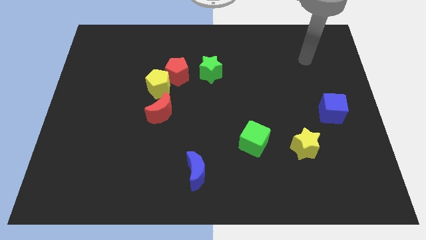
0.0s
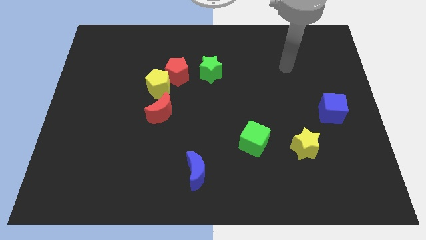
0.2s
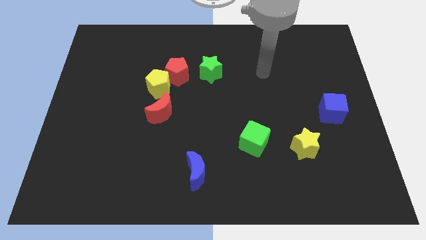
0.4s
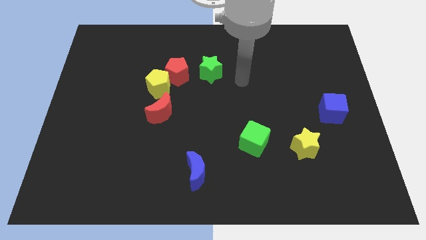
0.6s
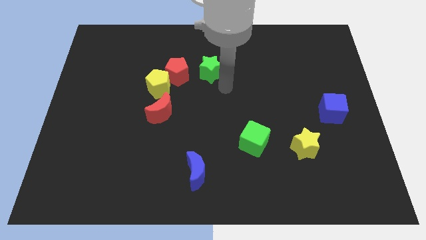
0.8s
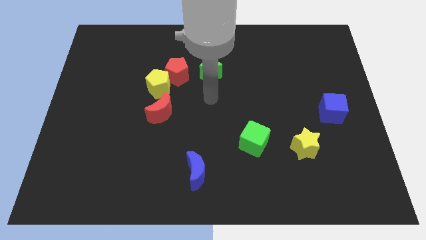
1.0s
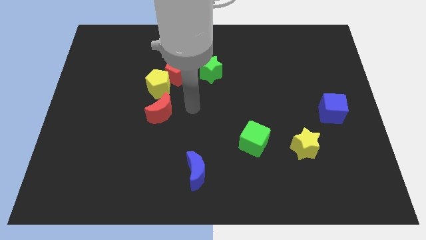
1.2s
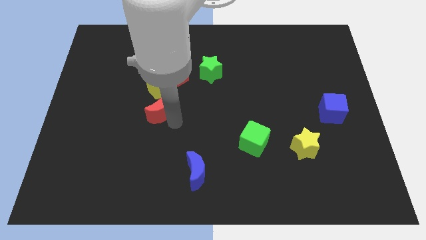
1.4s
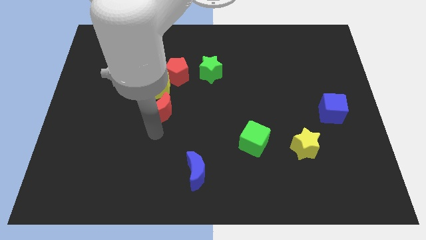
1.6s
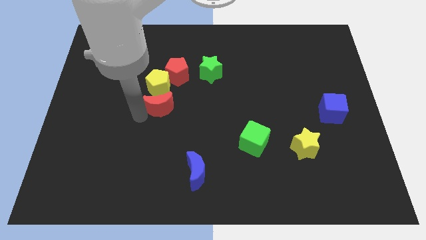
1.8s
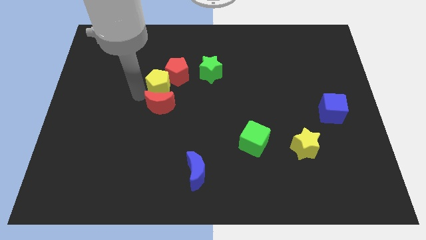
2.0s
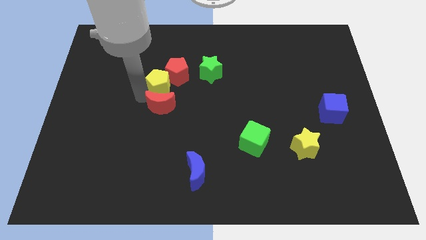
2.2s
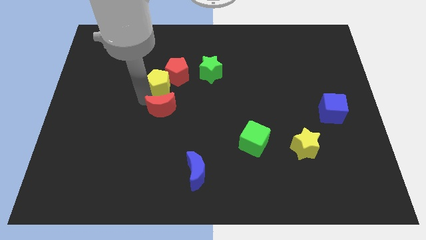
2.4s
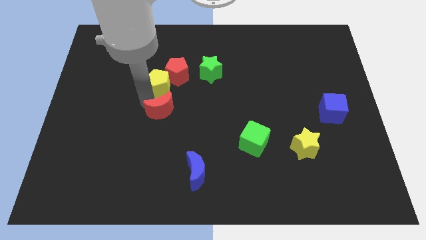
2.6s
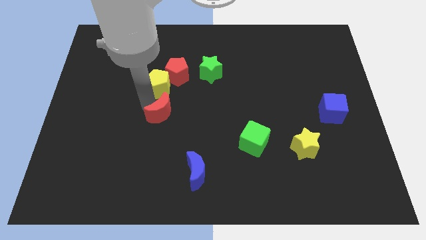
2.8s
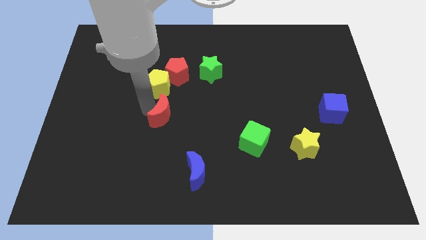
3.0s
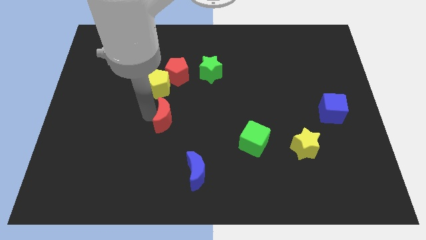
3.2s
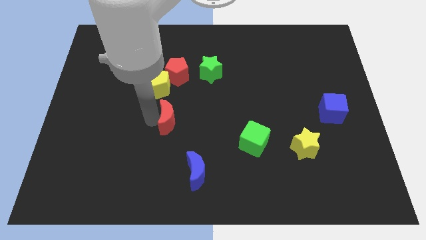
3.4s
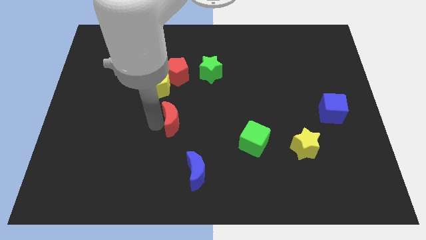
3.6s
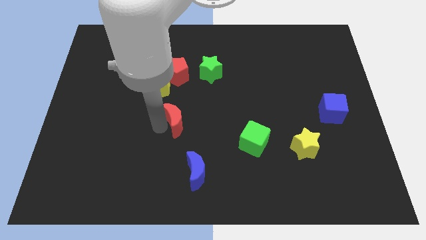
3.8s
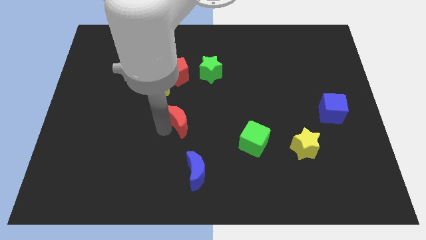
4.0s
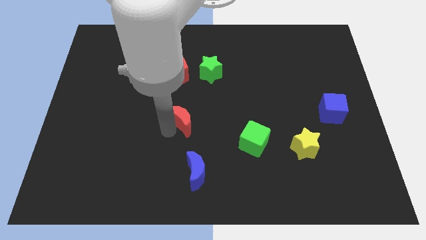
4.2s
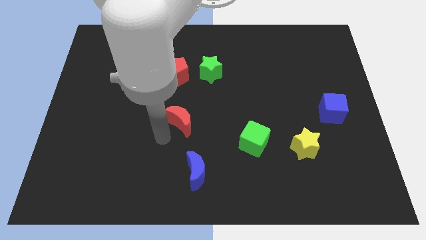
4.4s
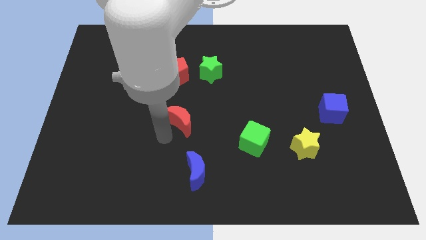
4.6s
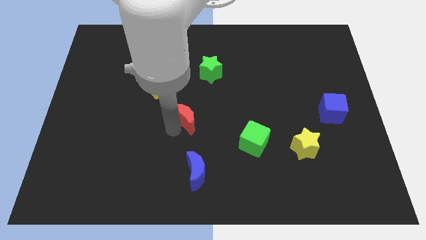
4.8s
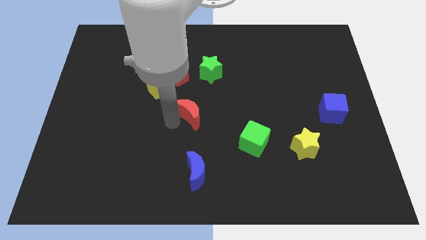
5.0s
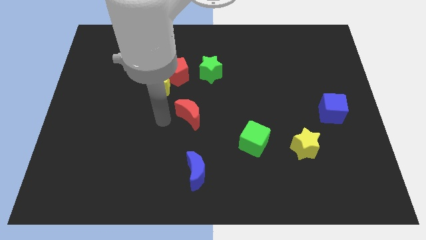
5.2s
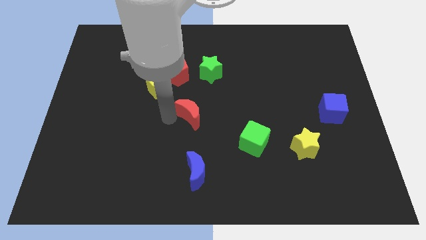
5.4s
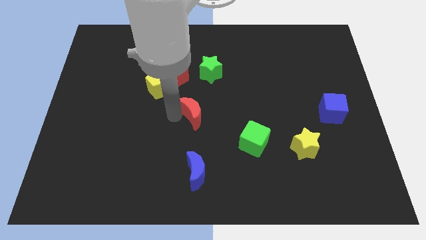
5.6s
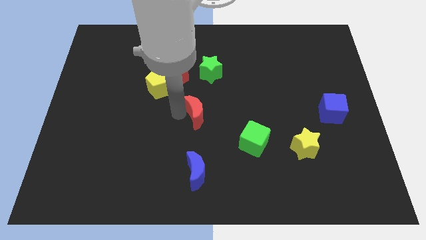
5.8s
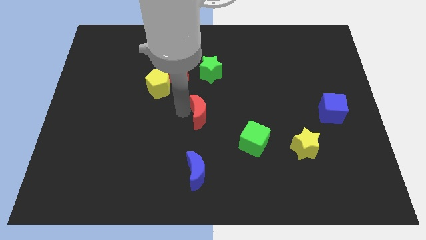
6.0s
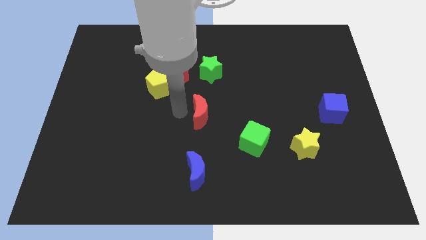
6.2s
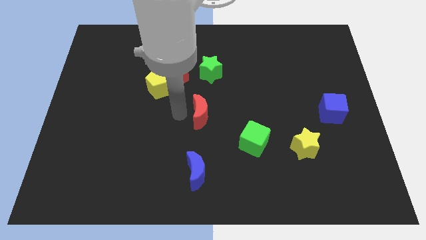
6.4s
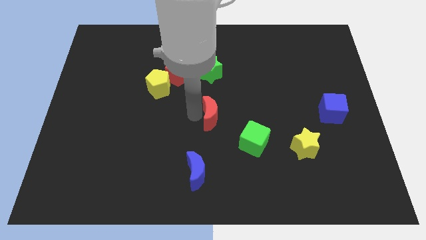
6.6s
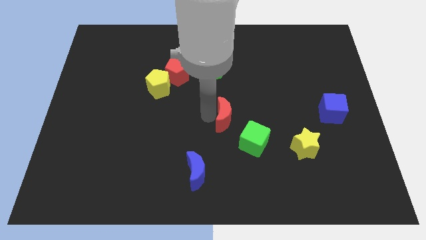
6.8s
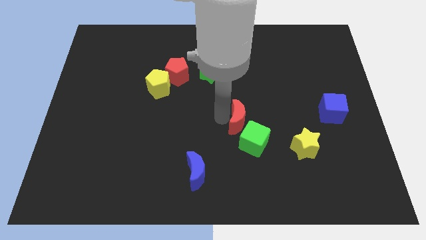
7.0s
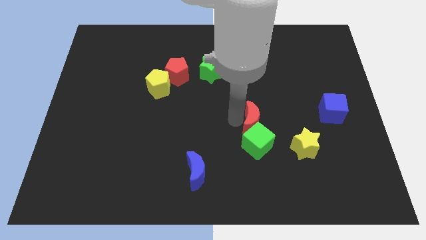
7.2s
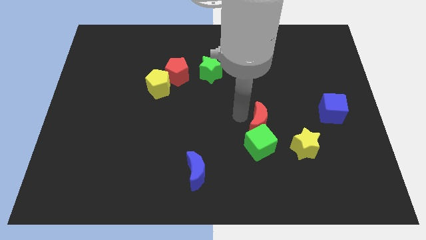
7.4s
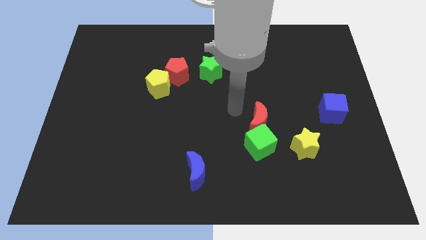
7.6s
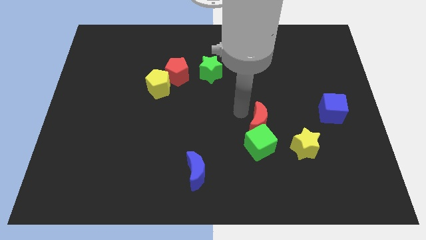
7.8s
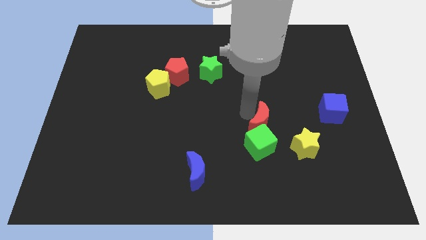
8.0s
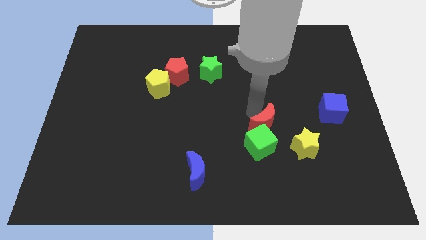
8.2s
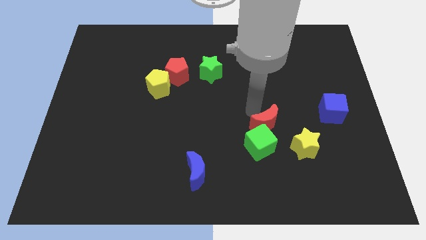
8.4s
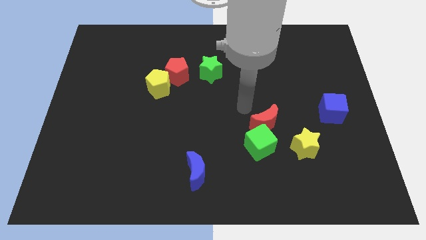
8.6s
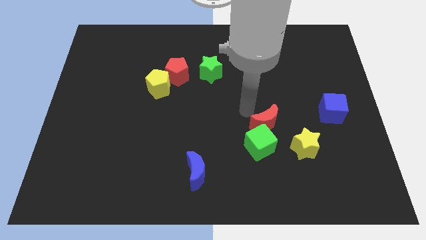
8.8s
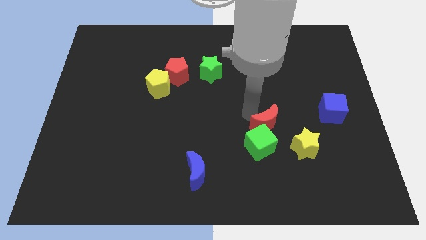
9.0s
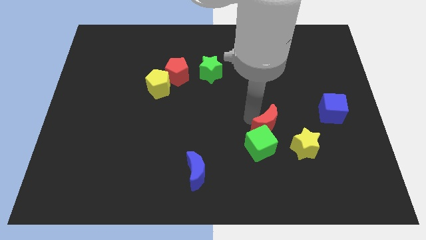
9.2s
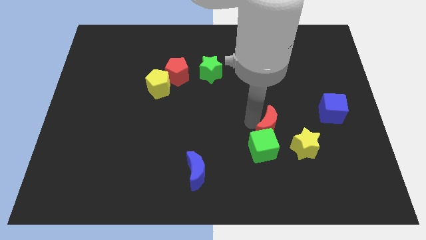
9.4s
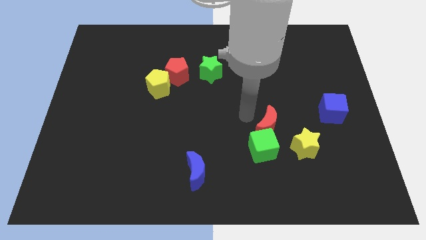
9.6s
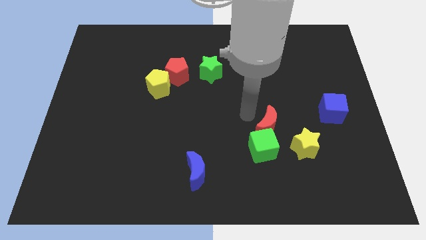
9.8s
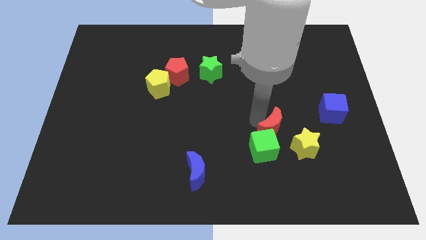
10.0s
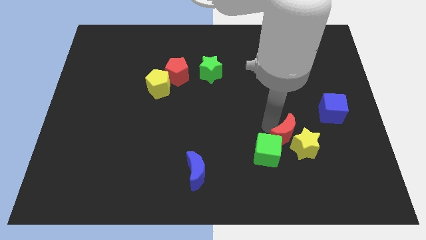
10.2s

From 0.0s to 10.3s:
push the red moon close to the yellow star

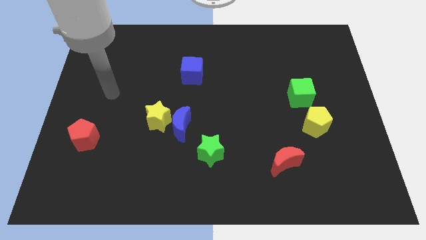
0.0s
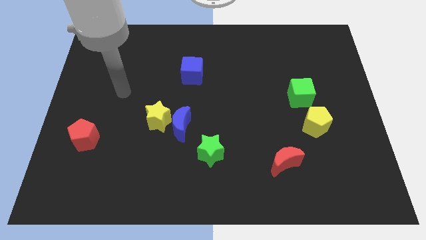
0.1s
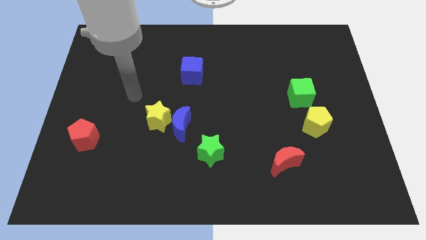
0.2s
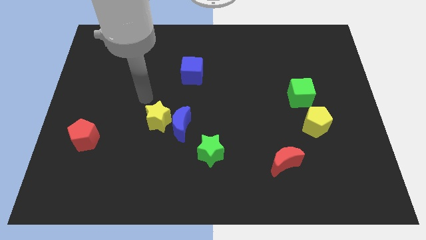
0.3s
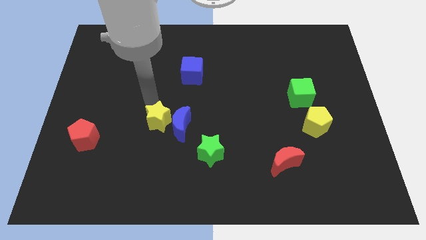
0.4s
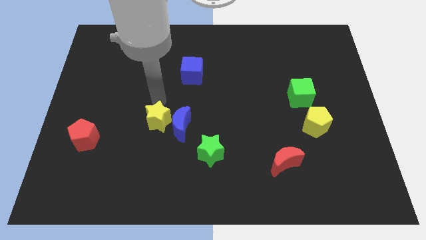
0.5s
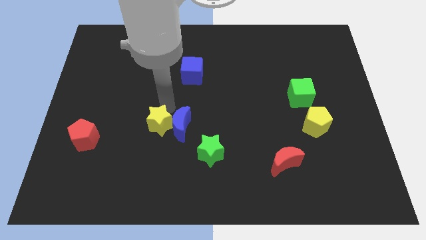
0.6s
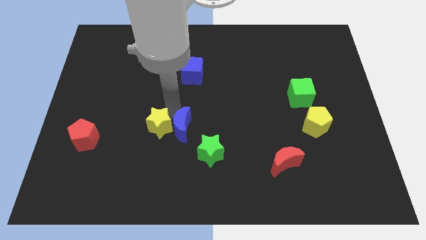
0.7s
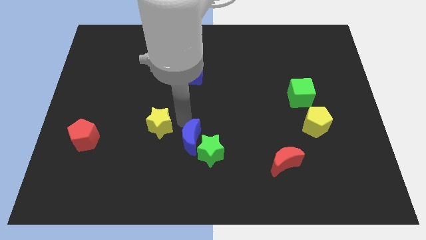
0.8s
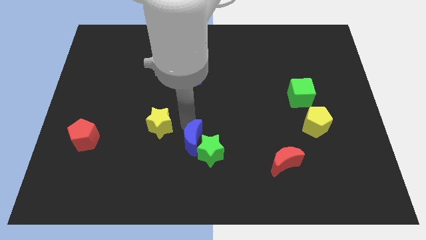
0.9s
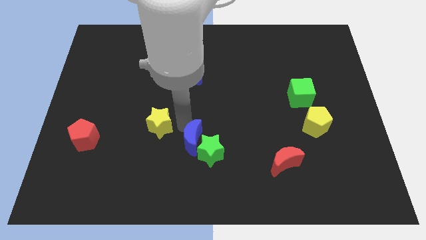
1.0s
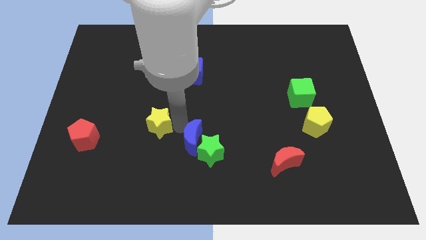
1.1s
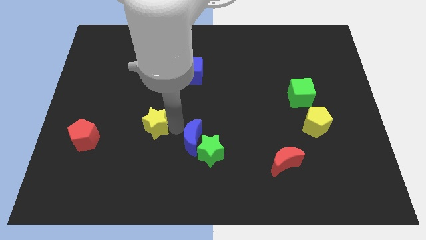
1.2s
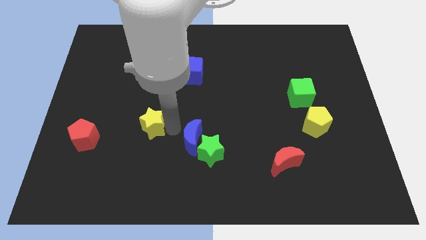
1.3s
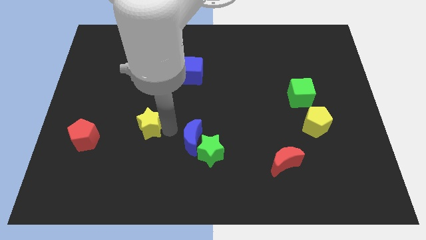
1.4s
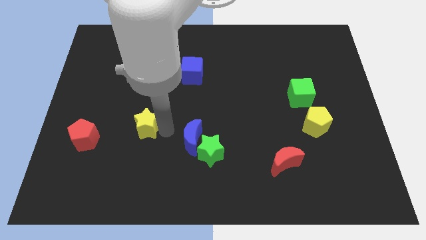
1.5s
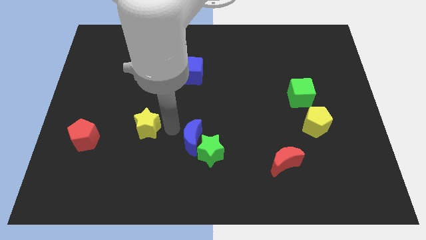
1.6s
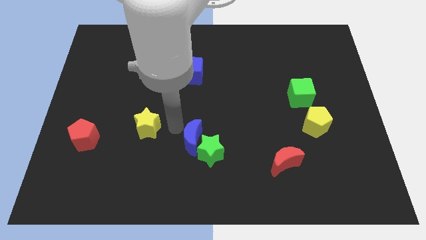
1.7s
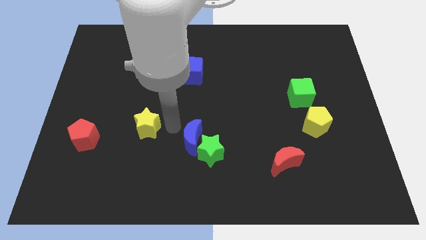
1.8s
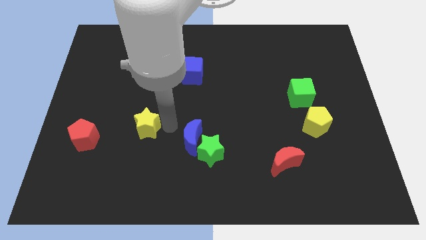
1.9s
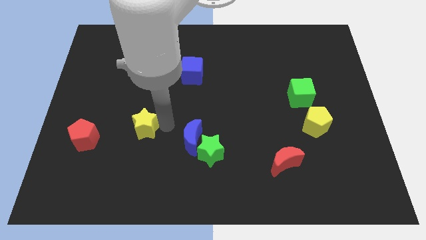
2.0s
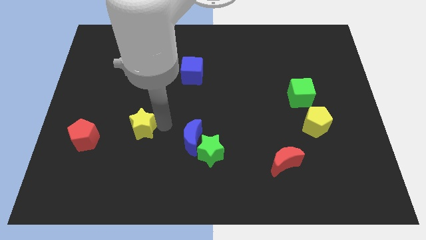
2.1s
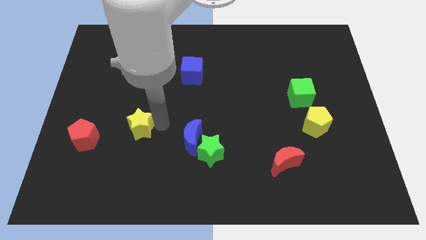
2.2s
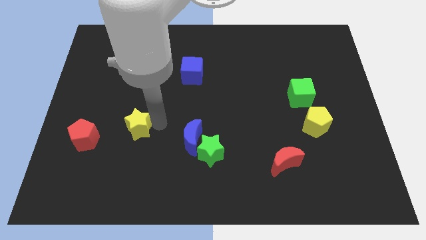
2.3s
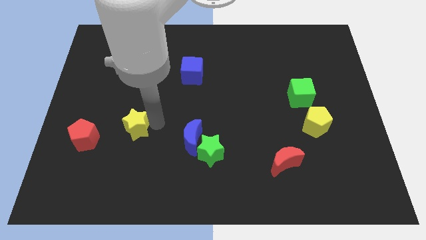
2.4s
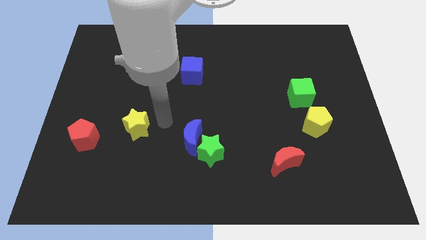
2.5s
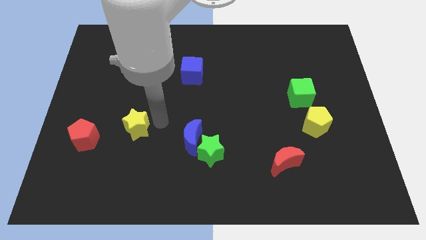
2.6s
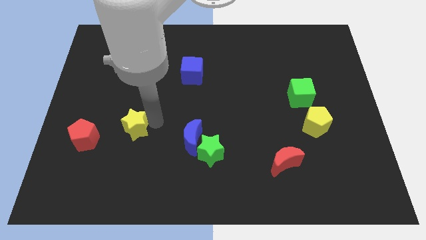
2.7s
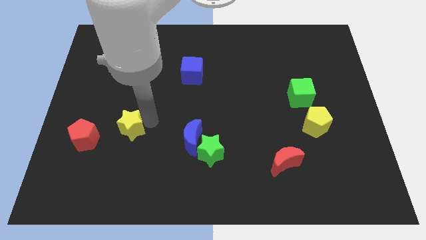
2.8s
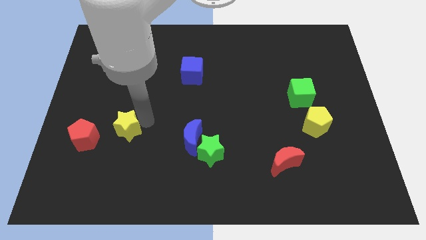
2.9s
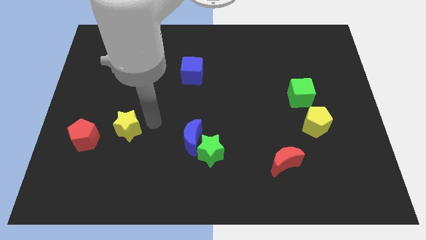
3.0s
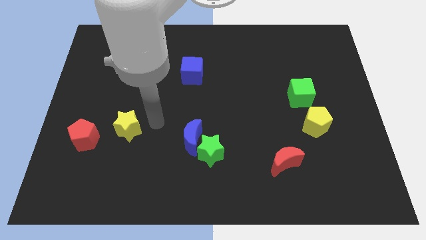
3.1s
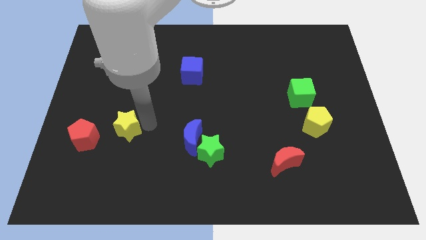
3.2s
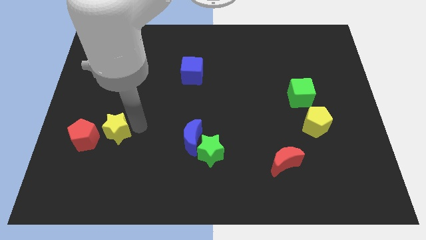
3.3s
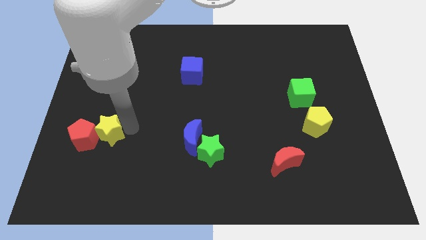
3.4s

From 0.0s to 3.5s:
put the yellow star to the red pentagon
